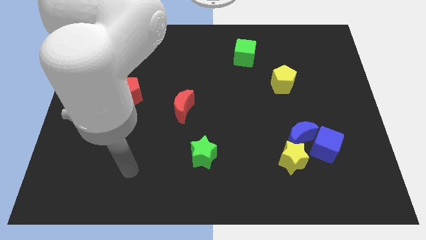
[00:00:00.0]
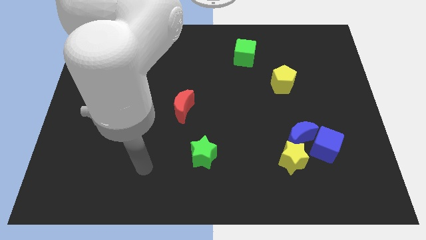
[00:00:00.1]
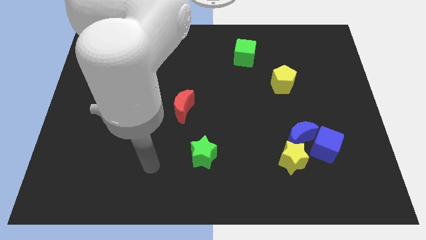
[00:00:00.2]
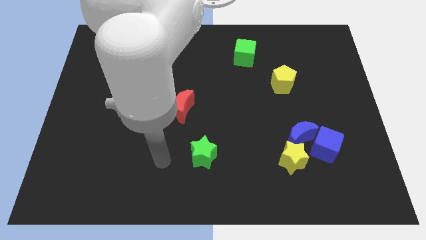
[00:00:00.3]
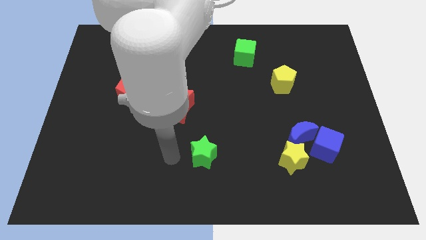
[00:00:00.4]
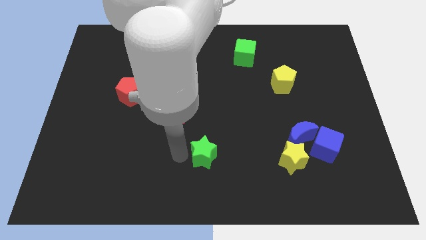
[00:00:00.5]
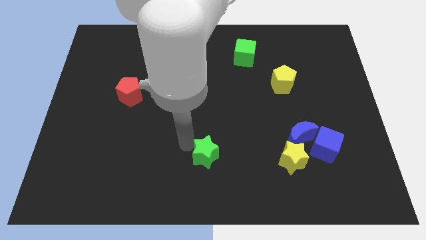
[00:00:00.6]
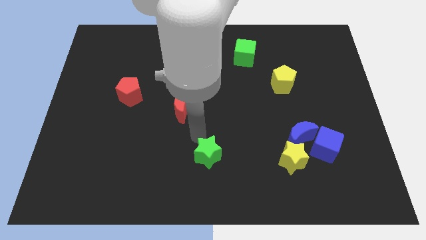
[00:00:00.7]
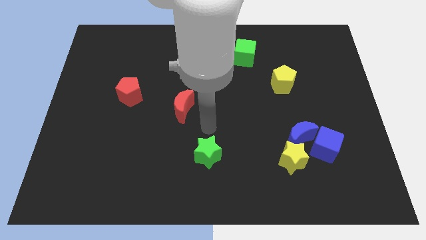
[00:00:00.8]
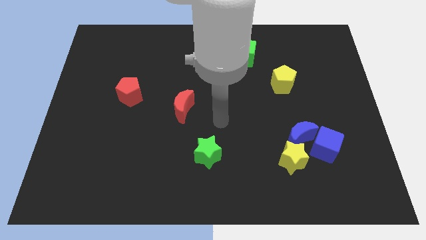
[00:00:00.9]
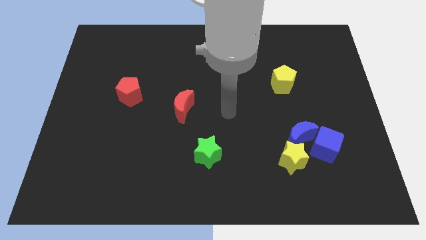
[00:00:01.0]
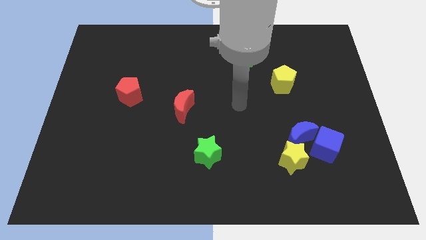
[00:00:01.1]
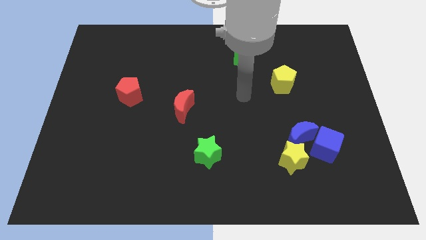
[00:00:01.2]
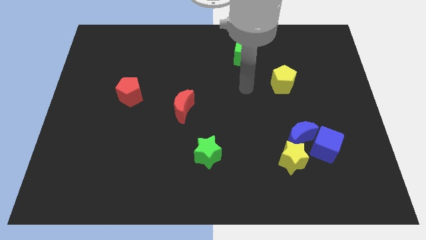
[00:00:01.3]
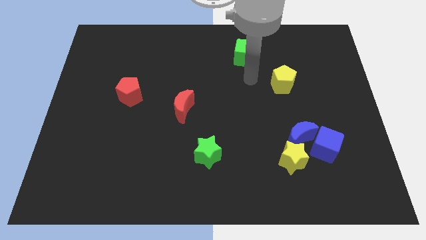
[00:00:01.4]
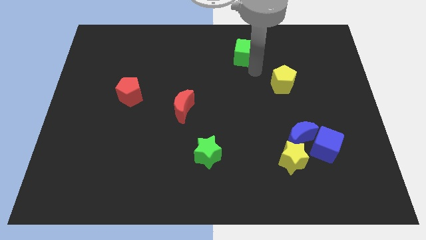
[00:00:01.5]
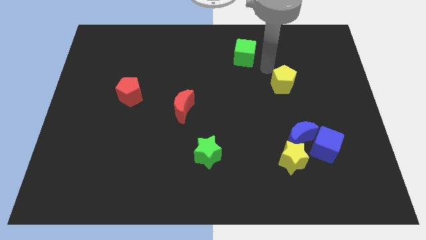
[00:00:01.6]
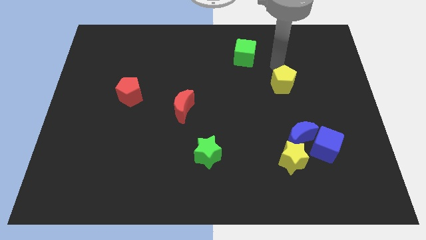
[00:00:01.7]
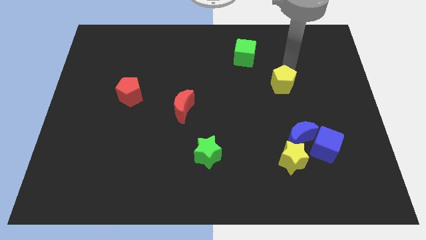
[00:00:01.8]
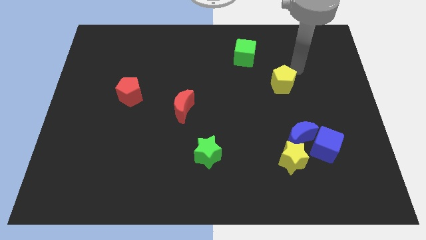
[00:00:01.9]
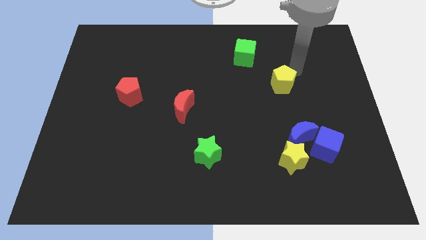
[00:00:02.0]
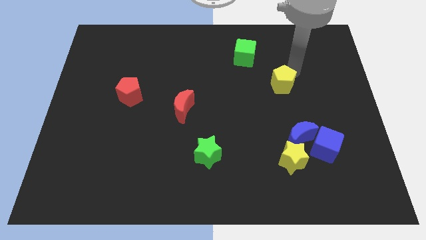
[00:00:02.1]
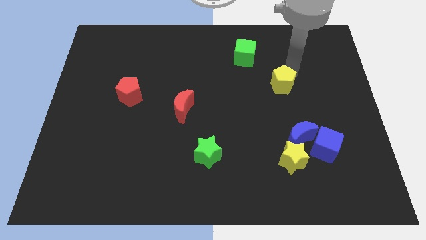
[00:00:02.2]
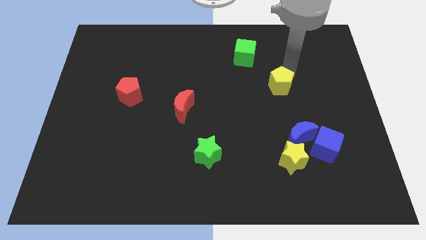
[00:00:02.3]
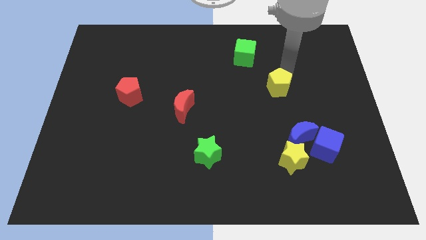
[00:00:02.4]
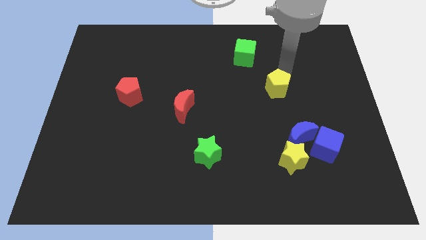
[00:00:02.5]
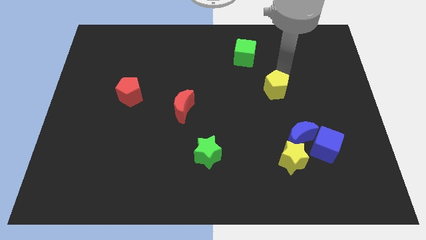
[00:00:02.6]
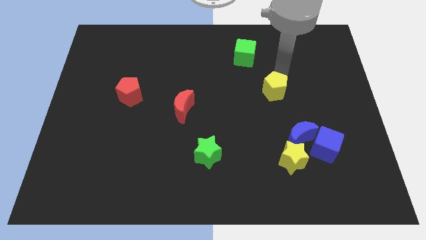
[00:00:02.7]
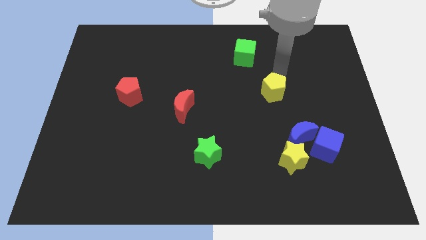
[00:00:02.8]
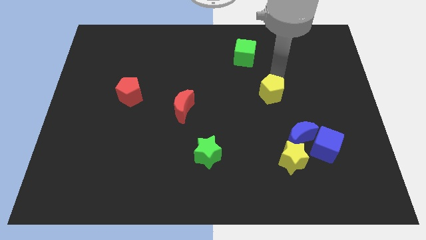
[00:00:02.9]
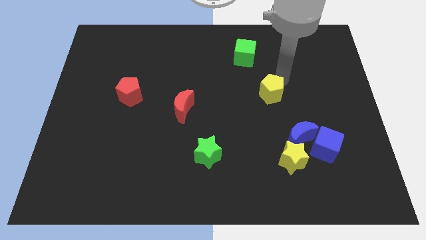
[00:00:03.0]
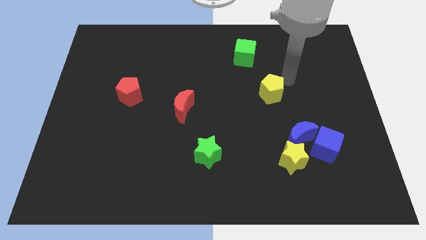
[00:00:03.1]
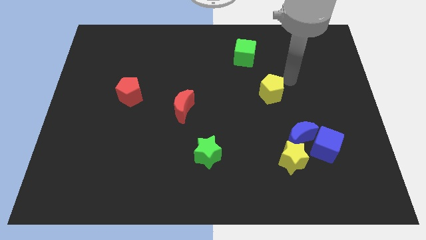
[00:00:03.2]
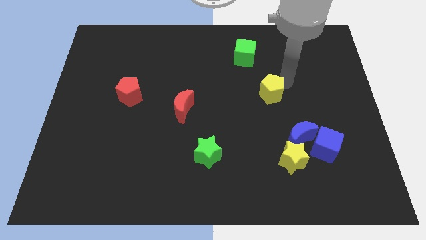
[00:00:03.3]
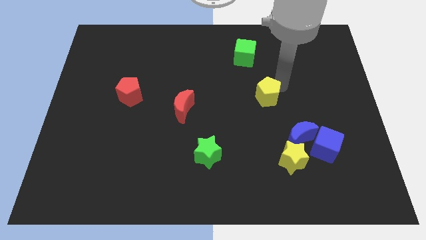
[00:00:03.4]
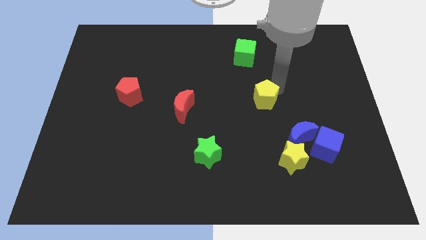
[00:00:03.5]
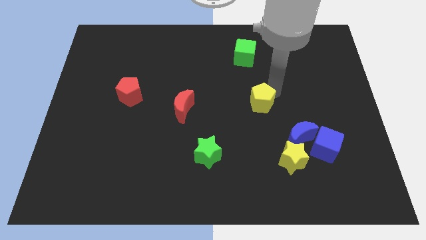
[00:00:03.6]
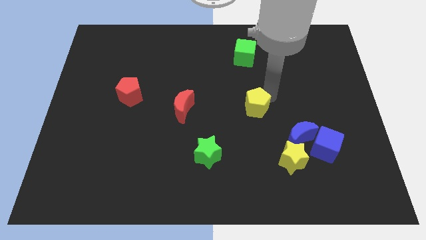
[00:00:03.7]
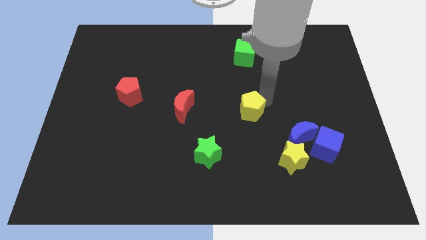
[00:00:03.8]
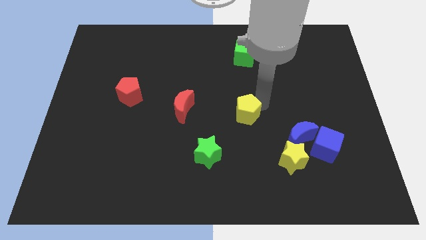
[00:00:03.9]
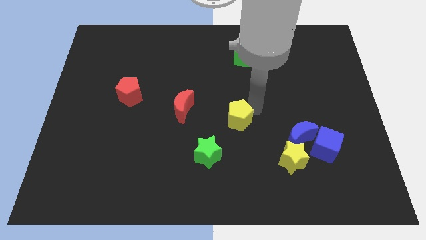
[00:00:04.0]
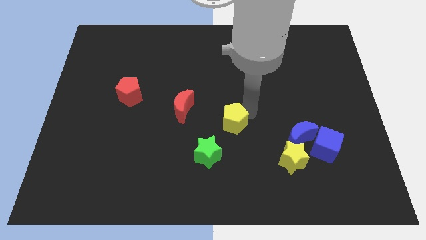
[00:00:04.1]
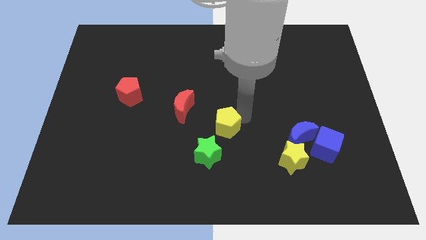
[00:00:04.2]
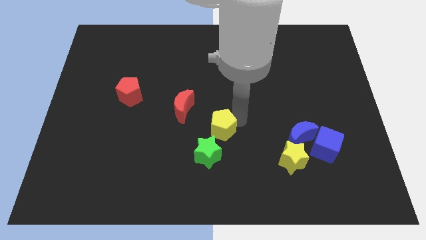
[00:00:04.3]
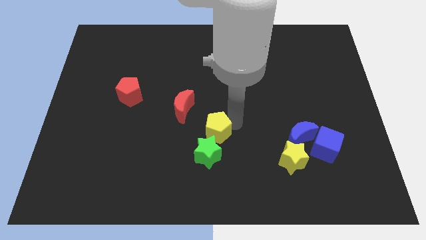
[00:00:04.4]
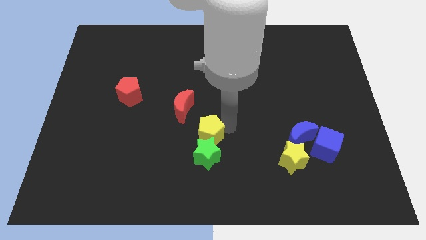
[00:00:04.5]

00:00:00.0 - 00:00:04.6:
put the yellow pentagon to the top left side of the green star

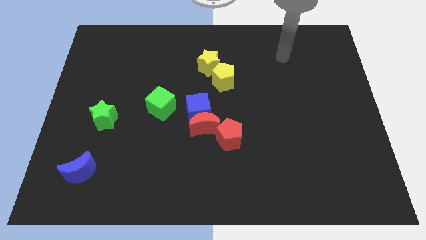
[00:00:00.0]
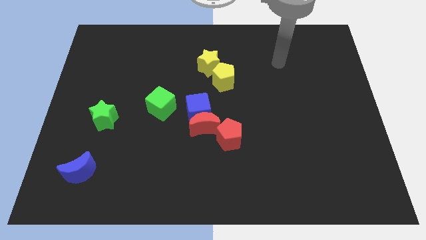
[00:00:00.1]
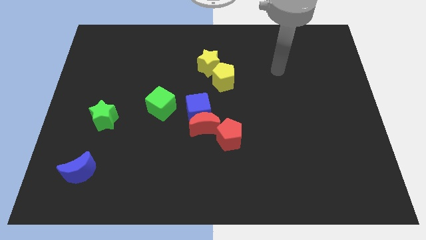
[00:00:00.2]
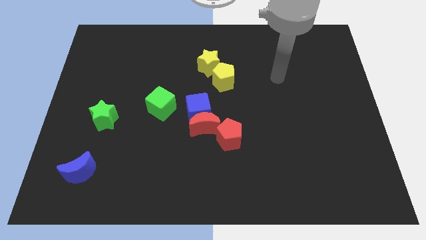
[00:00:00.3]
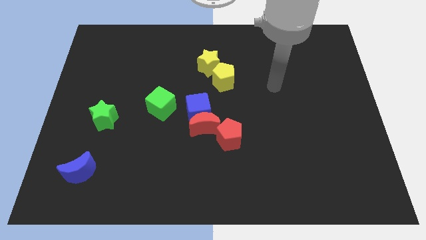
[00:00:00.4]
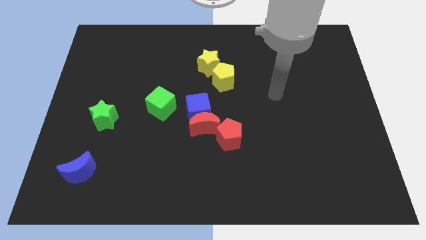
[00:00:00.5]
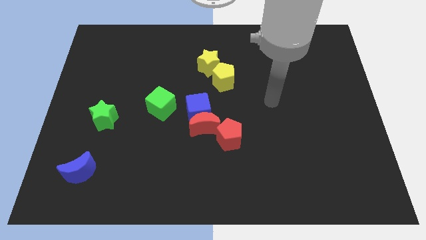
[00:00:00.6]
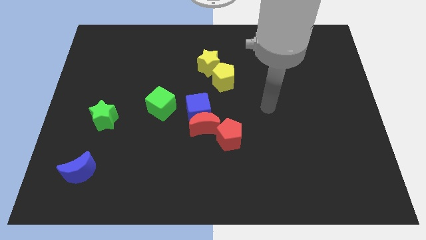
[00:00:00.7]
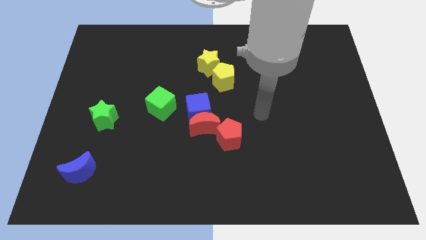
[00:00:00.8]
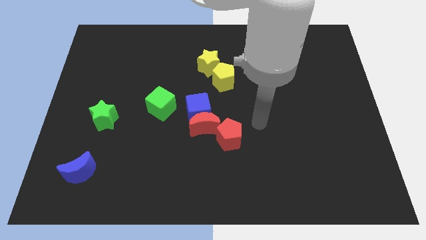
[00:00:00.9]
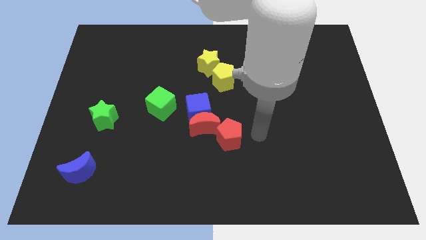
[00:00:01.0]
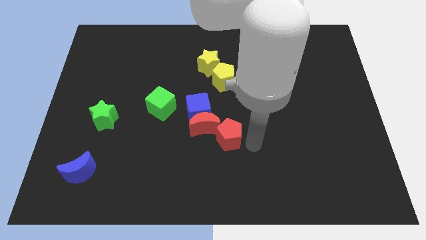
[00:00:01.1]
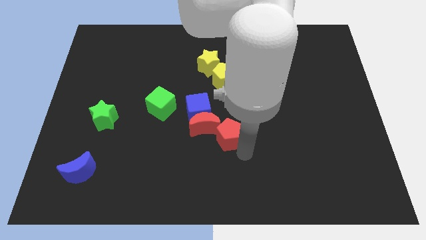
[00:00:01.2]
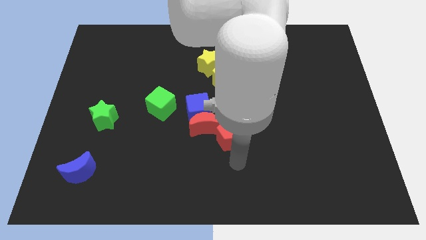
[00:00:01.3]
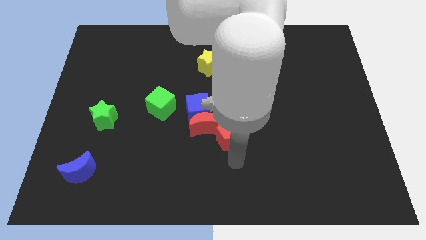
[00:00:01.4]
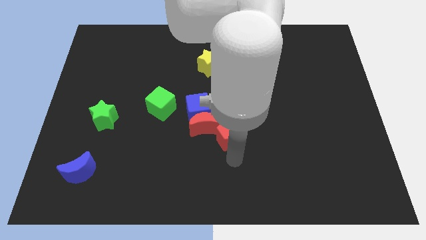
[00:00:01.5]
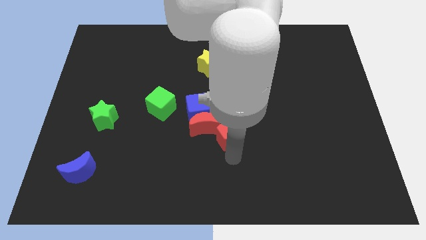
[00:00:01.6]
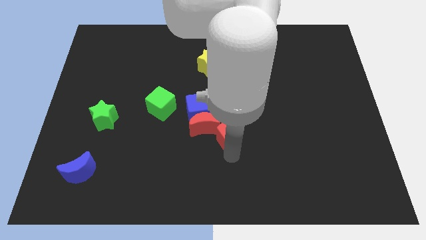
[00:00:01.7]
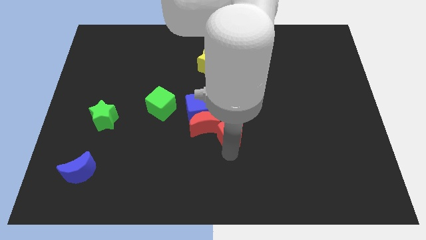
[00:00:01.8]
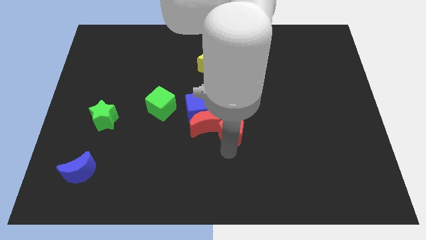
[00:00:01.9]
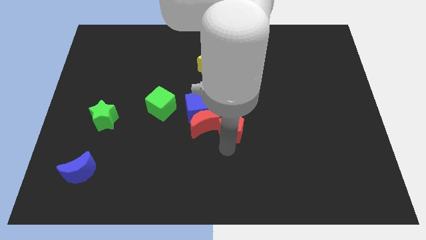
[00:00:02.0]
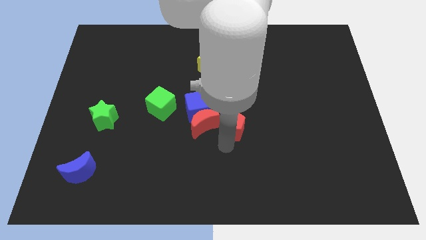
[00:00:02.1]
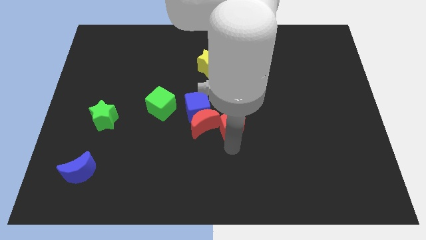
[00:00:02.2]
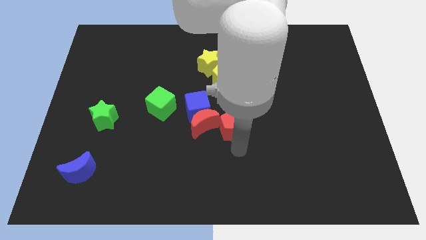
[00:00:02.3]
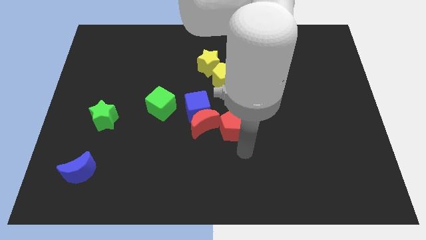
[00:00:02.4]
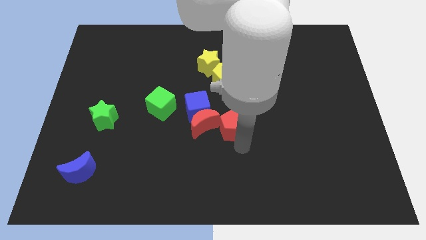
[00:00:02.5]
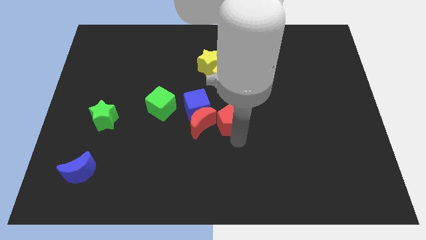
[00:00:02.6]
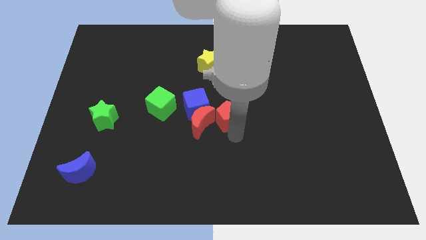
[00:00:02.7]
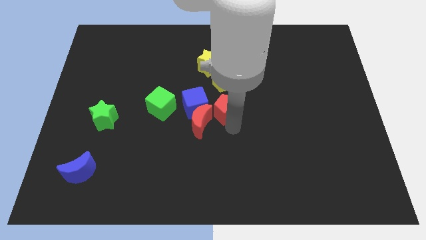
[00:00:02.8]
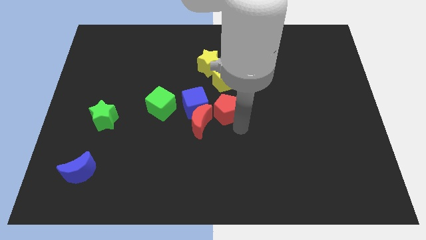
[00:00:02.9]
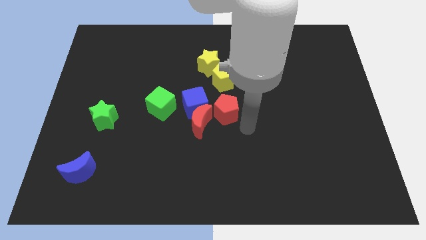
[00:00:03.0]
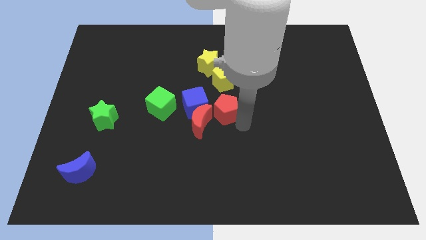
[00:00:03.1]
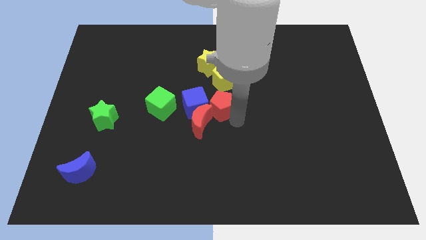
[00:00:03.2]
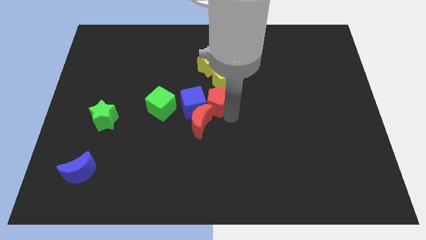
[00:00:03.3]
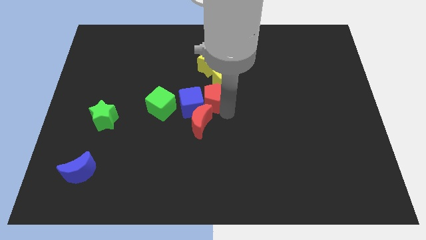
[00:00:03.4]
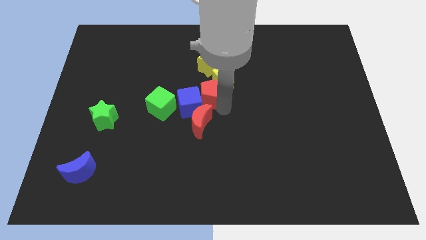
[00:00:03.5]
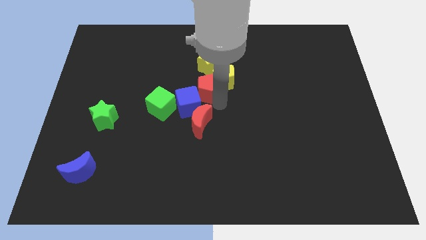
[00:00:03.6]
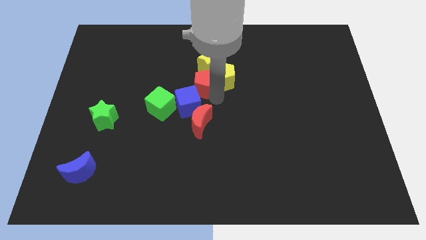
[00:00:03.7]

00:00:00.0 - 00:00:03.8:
move the red pentagon diagonally up and to the right of the green cube
